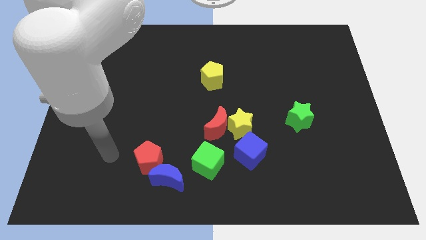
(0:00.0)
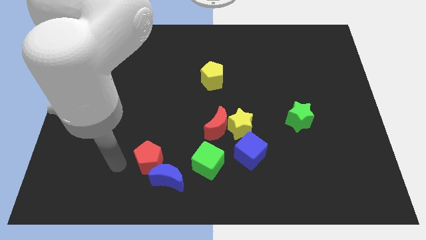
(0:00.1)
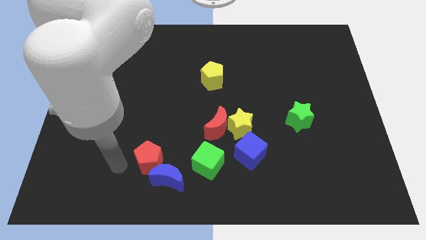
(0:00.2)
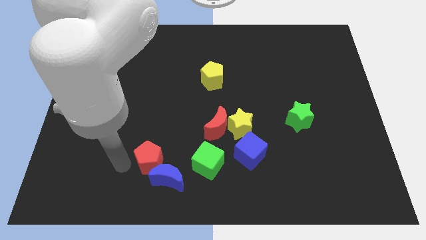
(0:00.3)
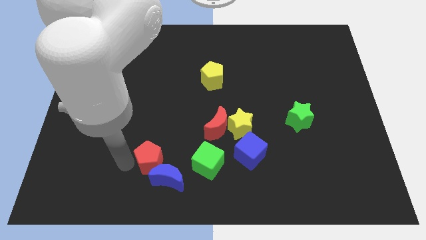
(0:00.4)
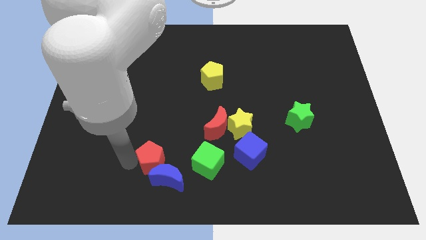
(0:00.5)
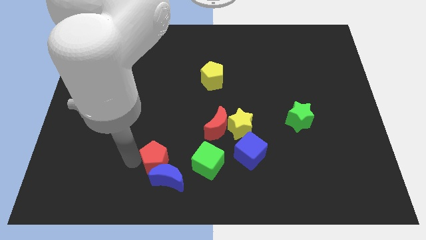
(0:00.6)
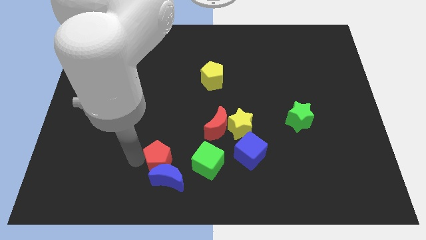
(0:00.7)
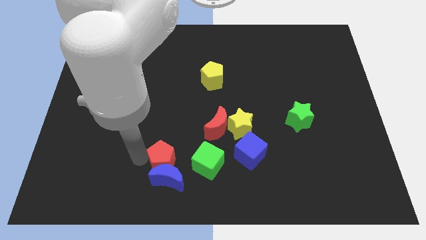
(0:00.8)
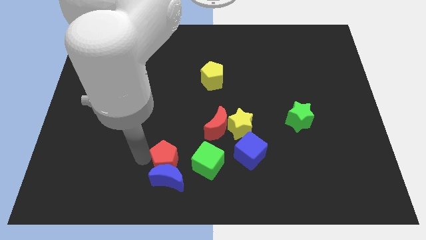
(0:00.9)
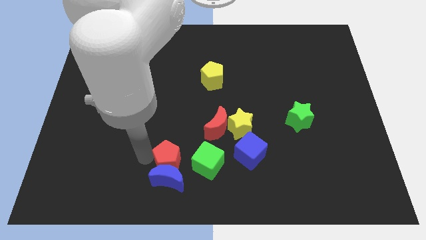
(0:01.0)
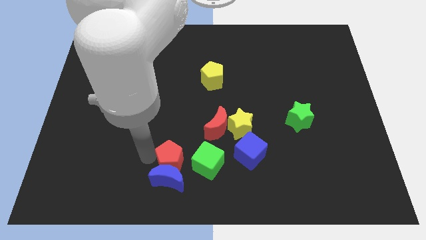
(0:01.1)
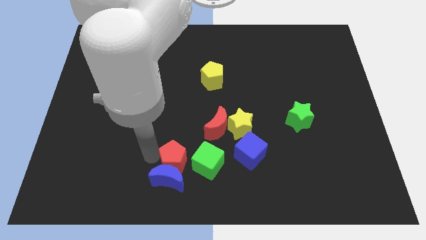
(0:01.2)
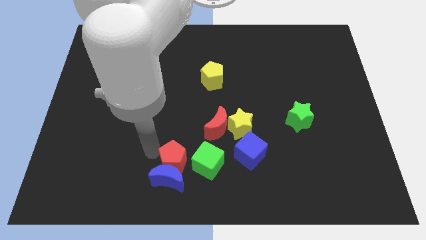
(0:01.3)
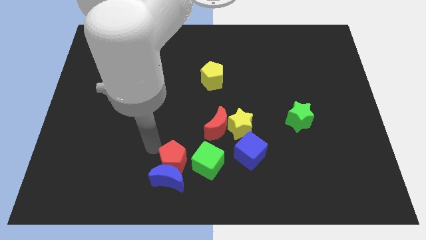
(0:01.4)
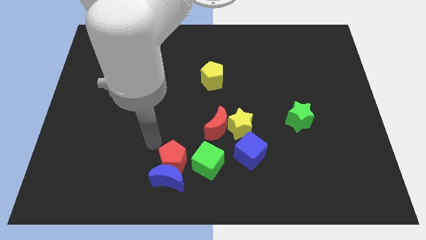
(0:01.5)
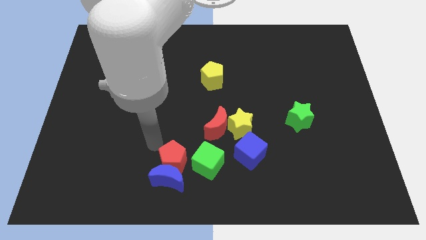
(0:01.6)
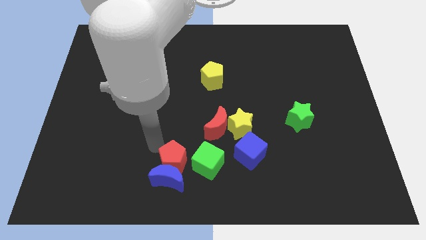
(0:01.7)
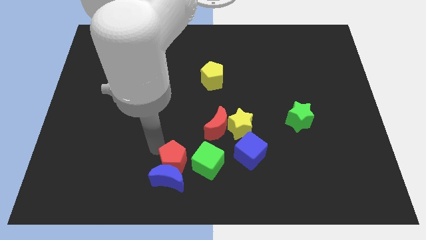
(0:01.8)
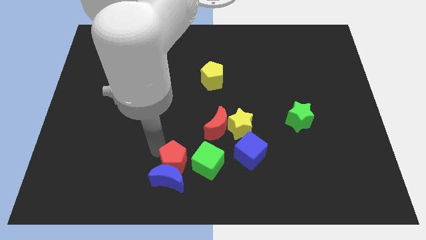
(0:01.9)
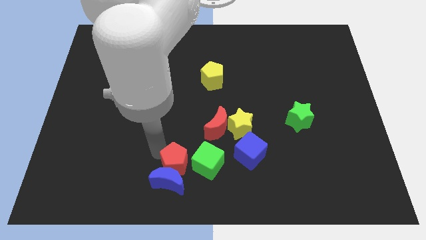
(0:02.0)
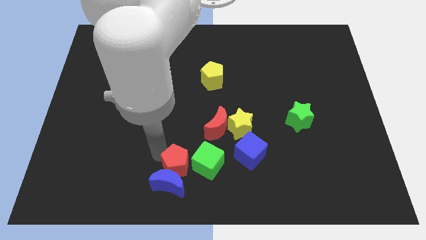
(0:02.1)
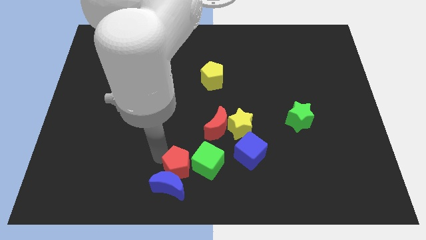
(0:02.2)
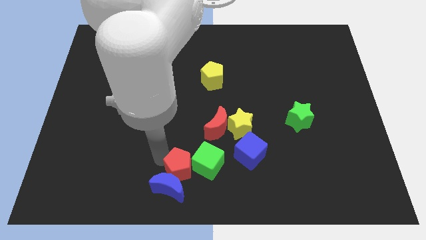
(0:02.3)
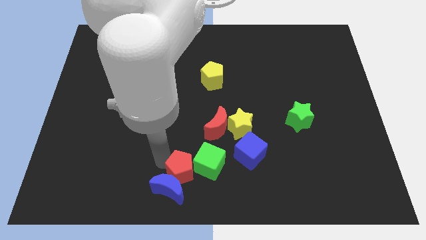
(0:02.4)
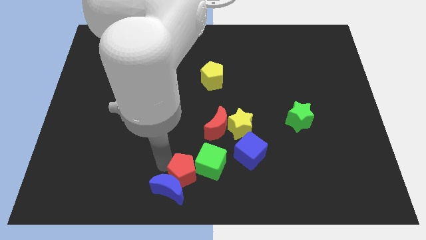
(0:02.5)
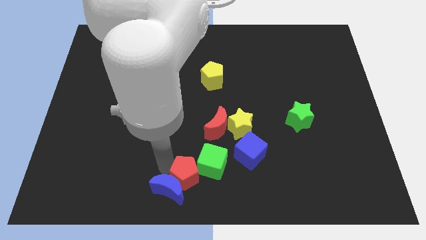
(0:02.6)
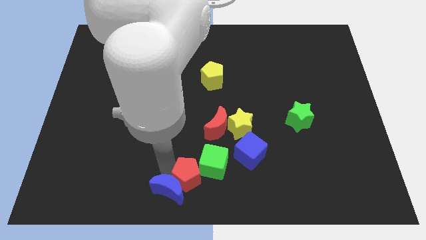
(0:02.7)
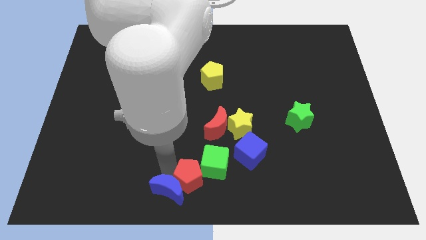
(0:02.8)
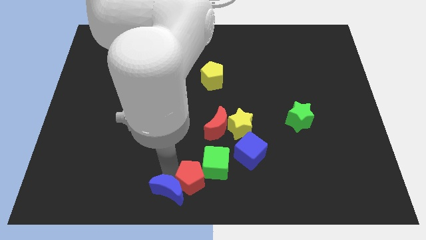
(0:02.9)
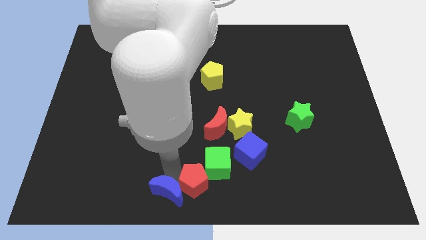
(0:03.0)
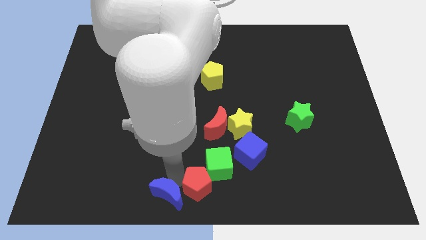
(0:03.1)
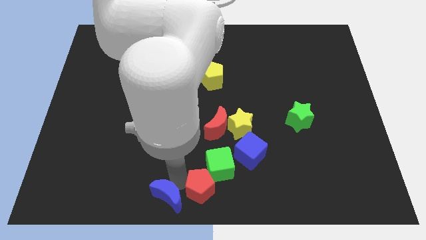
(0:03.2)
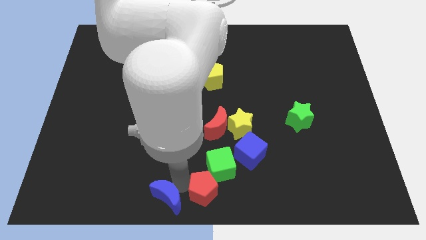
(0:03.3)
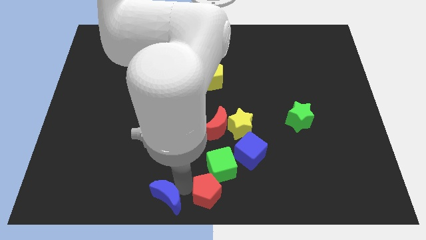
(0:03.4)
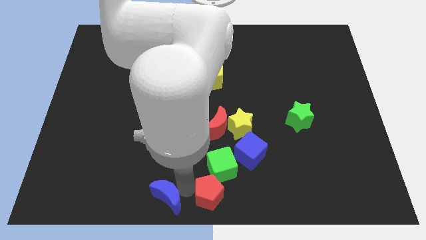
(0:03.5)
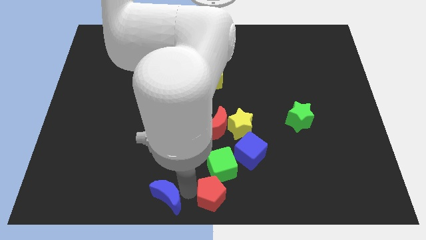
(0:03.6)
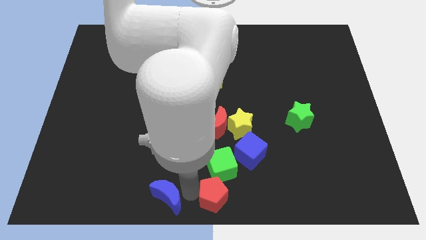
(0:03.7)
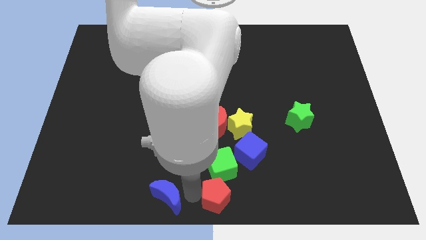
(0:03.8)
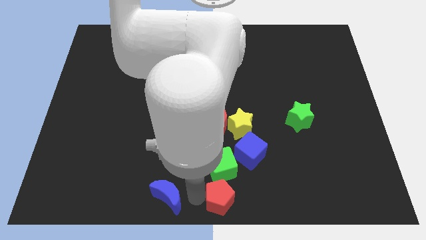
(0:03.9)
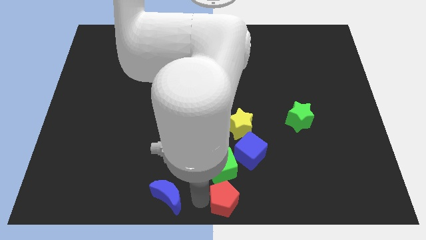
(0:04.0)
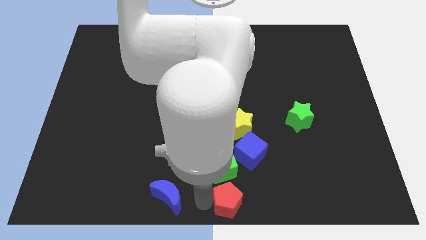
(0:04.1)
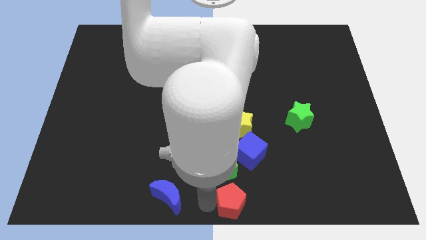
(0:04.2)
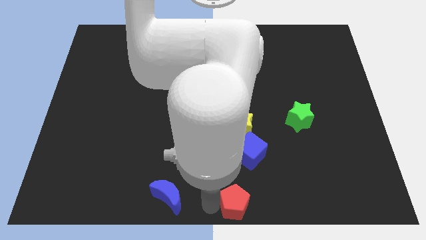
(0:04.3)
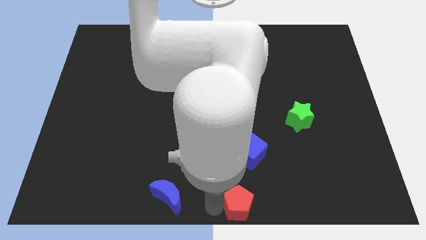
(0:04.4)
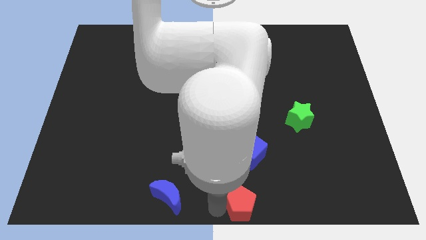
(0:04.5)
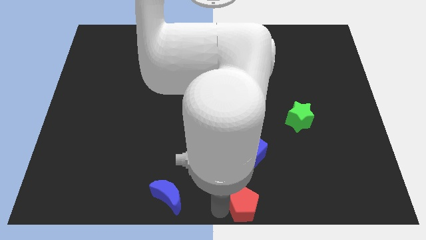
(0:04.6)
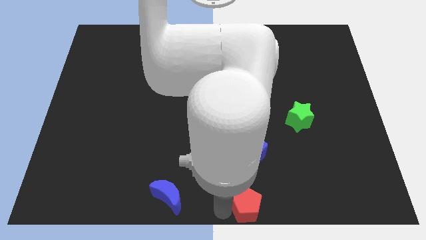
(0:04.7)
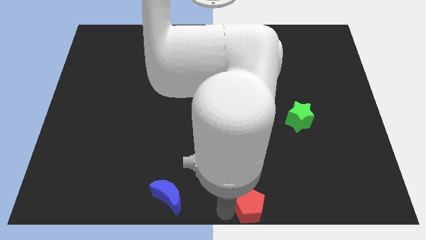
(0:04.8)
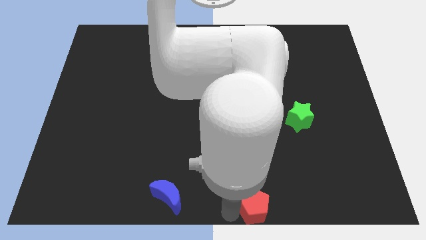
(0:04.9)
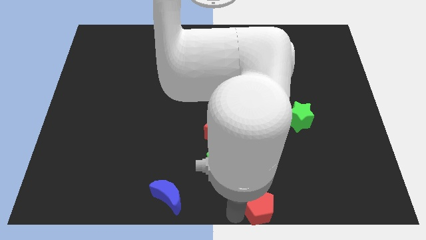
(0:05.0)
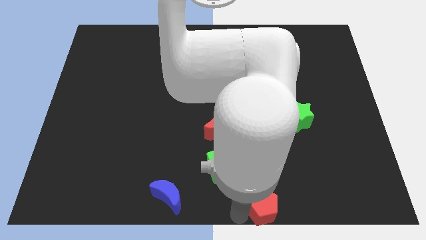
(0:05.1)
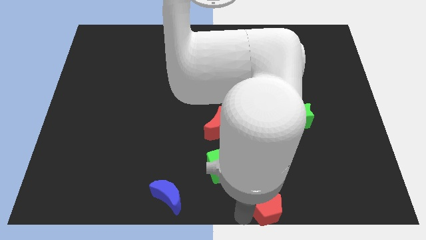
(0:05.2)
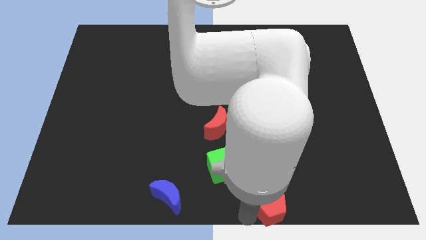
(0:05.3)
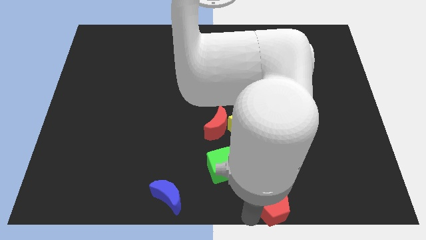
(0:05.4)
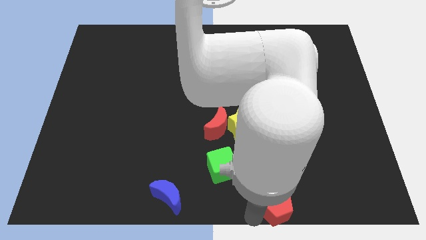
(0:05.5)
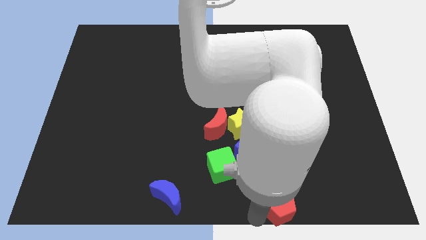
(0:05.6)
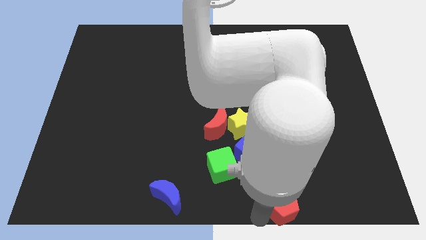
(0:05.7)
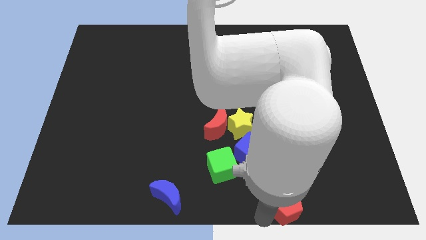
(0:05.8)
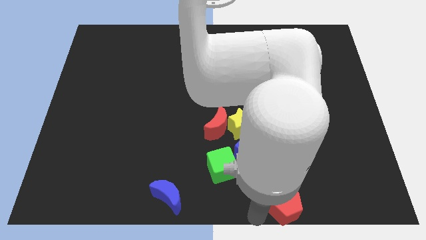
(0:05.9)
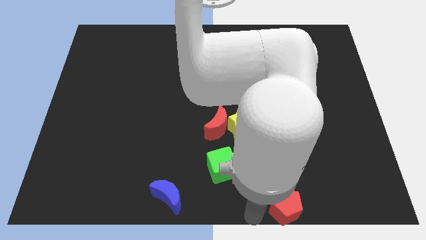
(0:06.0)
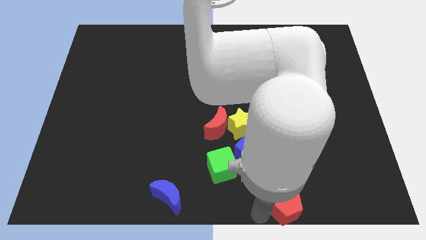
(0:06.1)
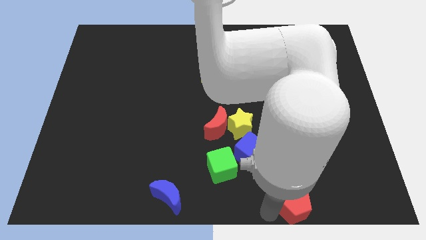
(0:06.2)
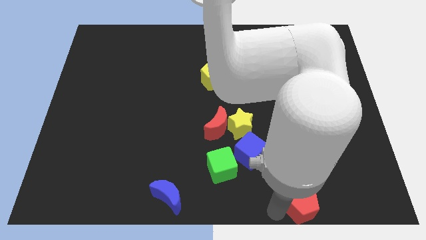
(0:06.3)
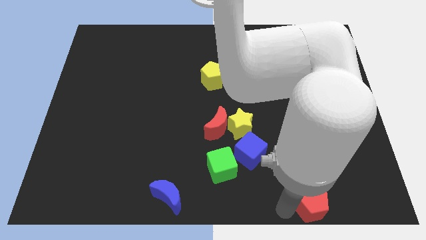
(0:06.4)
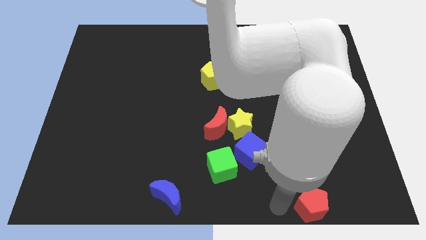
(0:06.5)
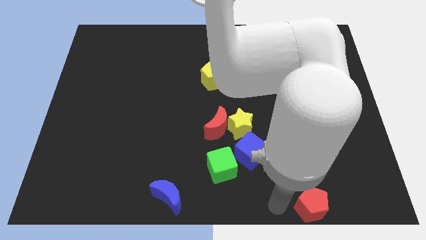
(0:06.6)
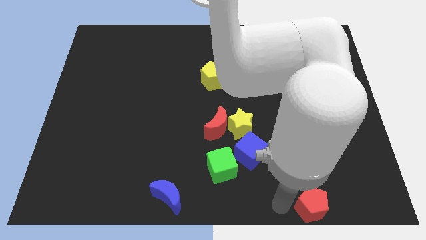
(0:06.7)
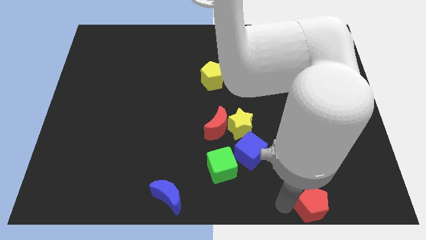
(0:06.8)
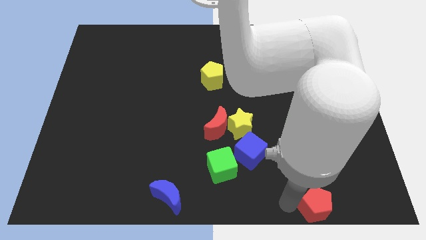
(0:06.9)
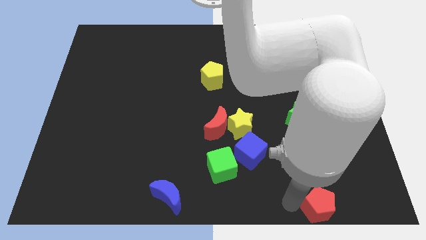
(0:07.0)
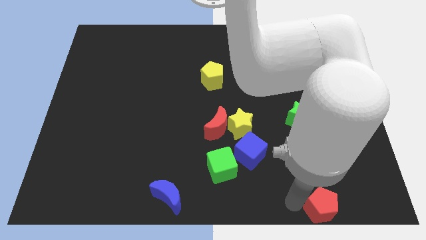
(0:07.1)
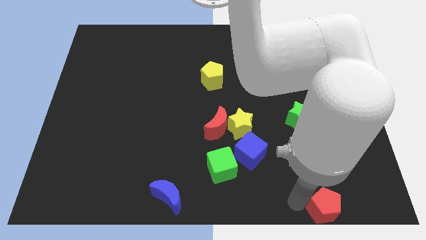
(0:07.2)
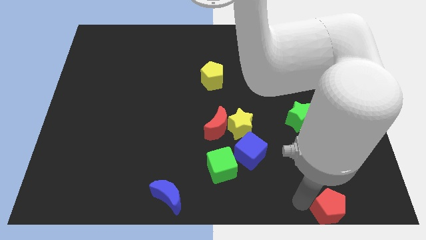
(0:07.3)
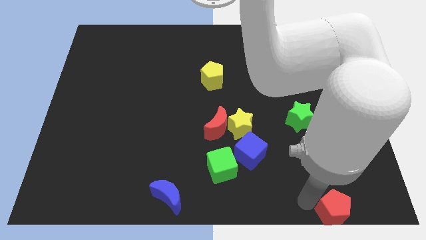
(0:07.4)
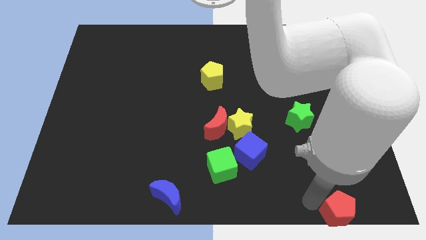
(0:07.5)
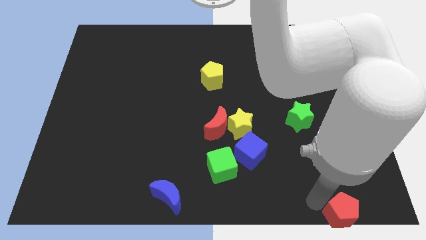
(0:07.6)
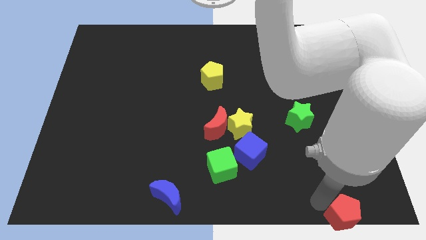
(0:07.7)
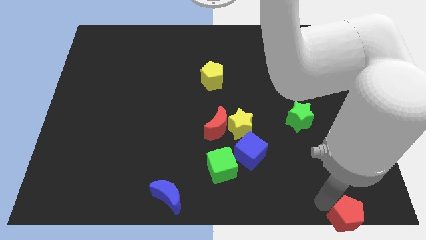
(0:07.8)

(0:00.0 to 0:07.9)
push the red pentagon to the lower right corner
